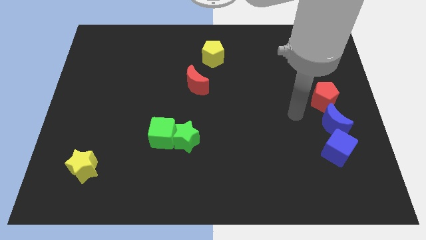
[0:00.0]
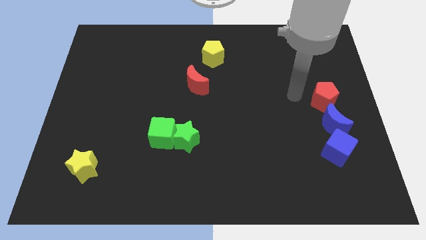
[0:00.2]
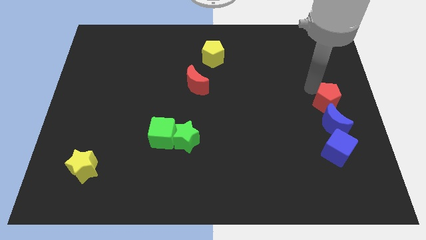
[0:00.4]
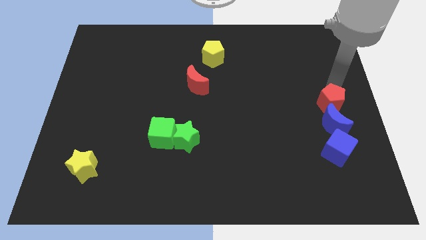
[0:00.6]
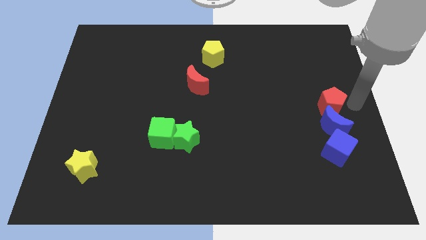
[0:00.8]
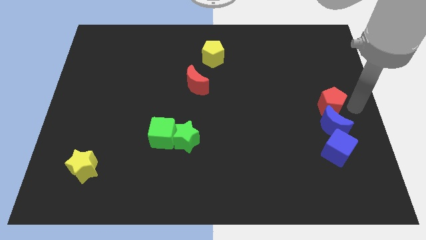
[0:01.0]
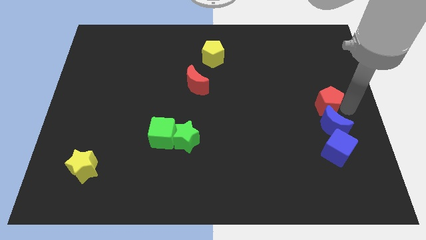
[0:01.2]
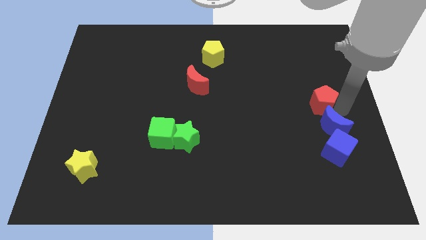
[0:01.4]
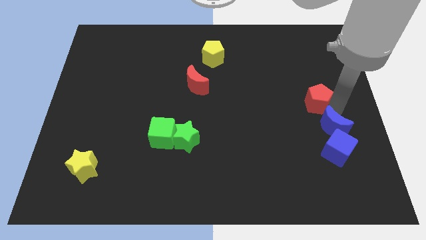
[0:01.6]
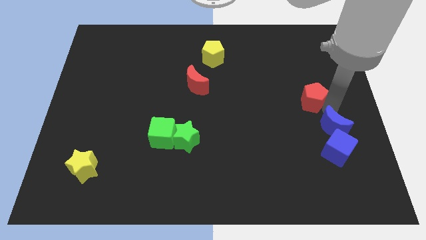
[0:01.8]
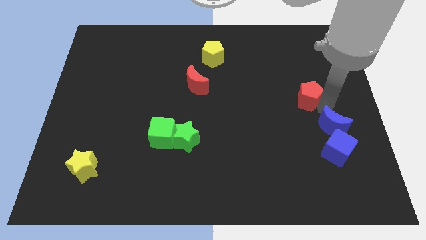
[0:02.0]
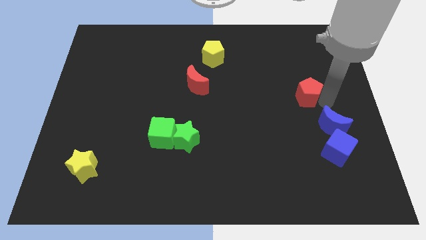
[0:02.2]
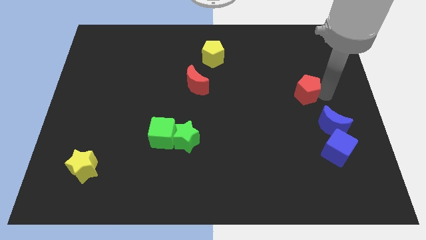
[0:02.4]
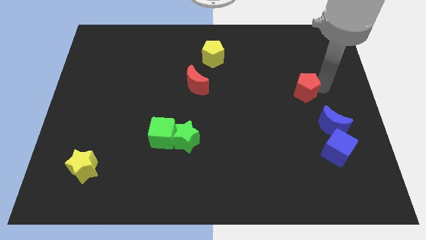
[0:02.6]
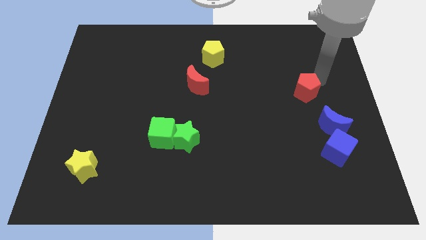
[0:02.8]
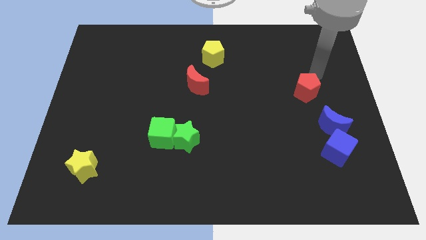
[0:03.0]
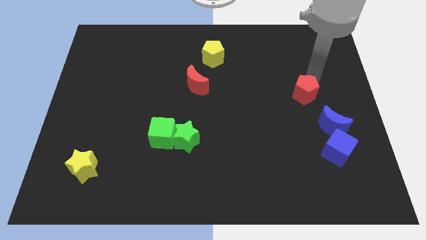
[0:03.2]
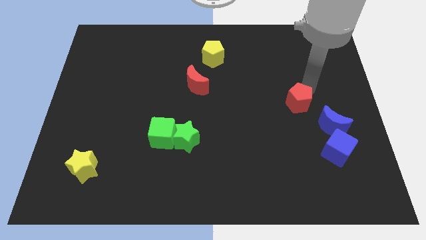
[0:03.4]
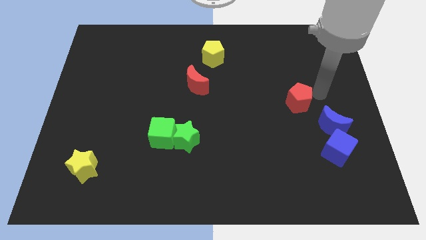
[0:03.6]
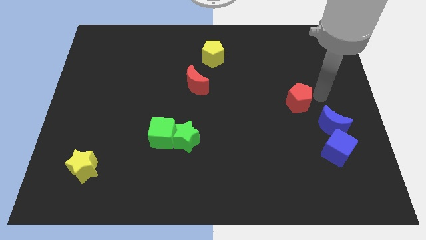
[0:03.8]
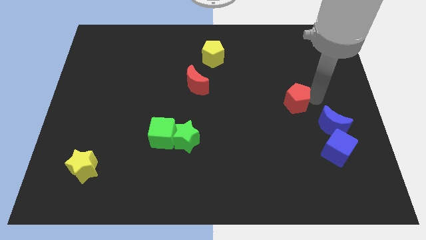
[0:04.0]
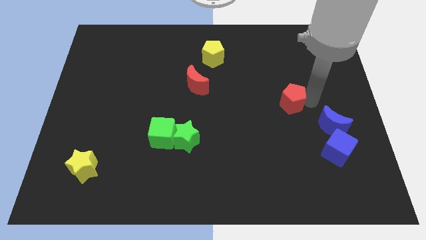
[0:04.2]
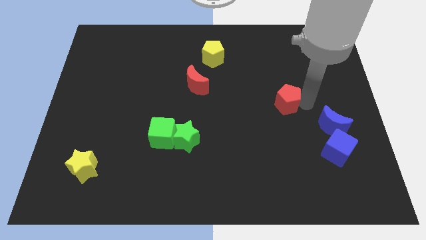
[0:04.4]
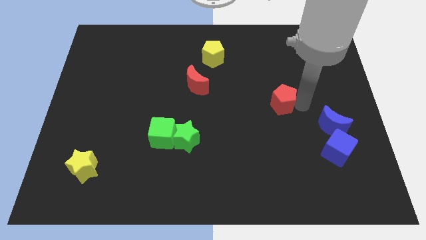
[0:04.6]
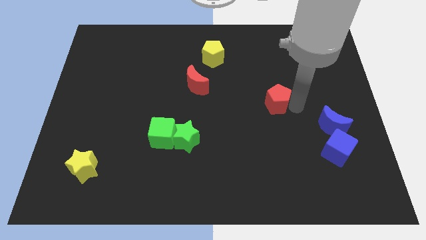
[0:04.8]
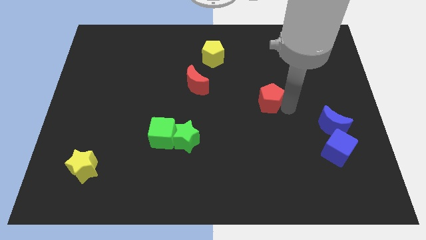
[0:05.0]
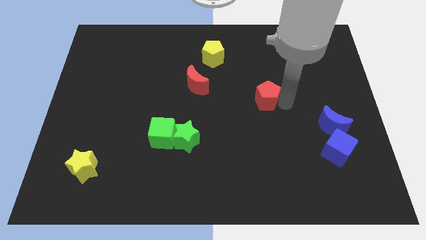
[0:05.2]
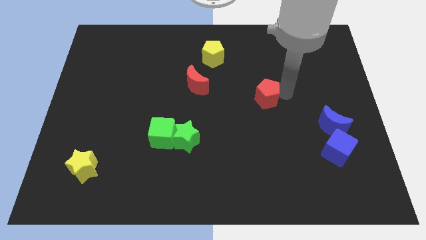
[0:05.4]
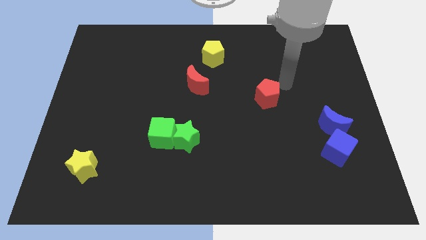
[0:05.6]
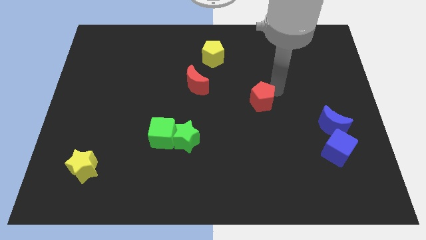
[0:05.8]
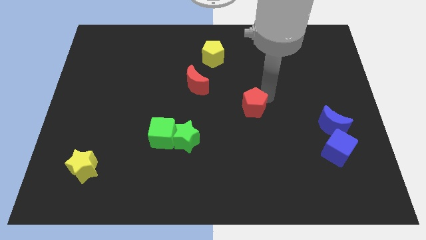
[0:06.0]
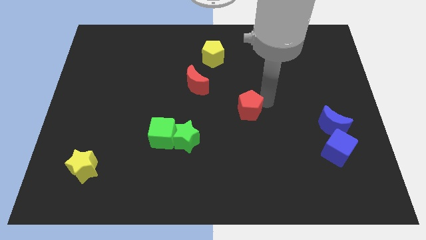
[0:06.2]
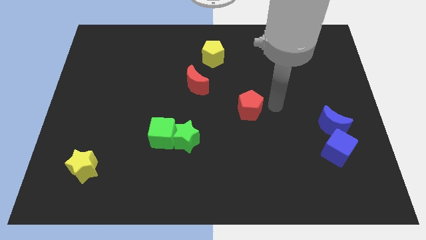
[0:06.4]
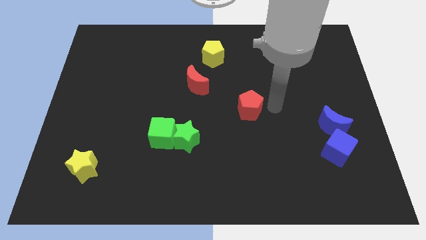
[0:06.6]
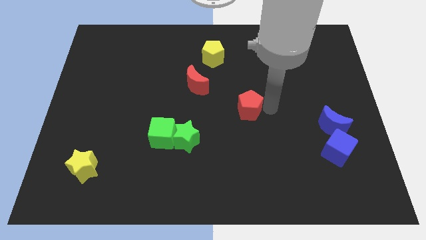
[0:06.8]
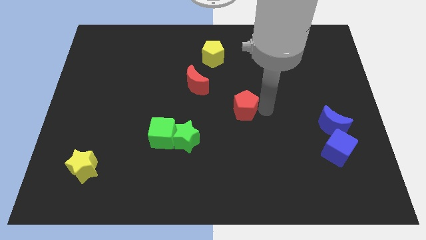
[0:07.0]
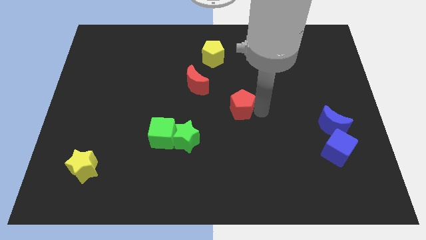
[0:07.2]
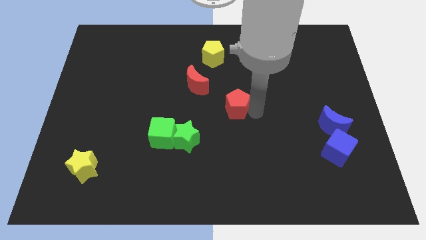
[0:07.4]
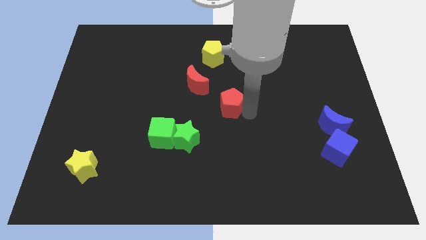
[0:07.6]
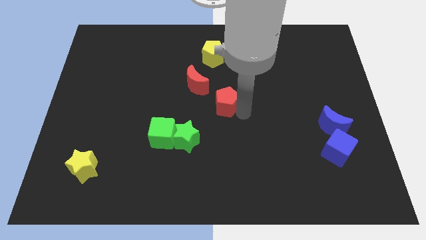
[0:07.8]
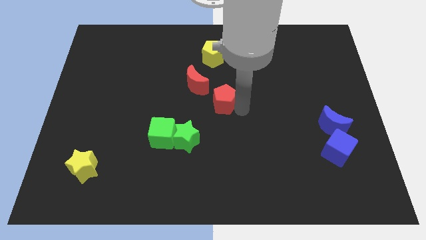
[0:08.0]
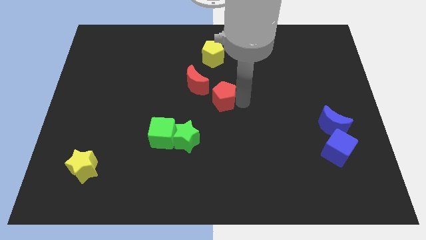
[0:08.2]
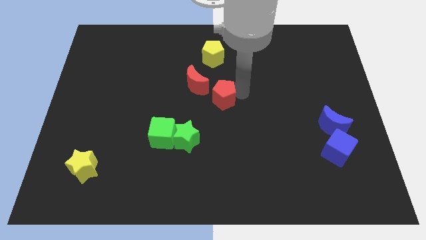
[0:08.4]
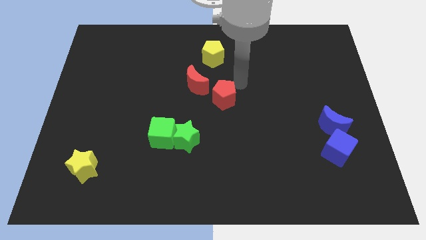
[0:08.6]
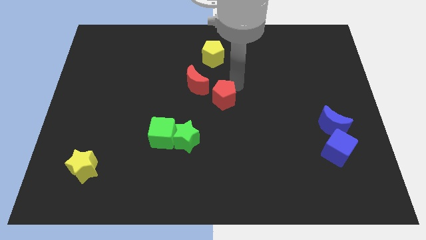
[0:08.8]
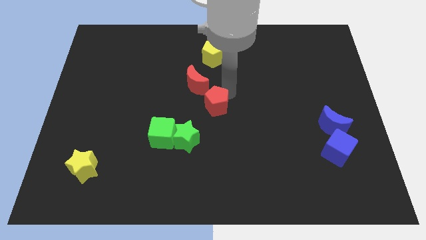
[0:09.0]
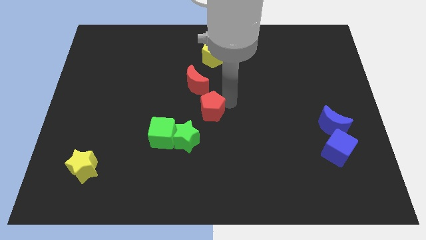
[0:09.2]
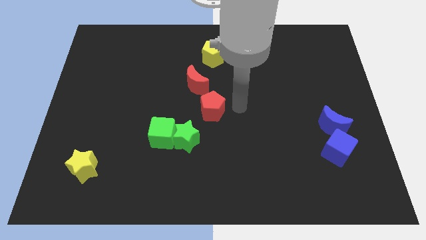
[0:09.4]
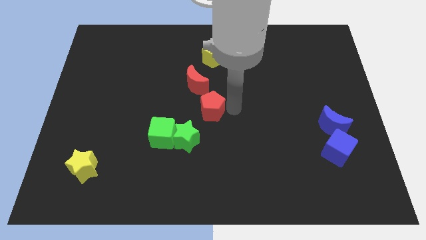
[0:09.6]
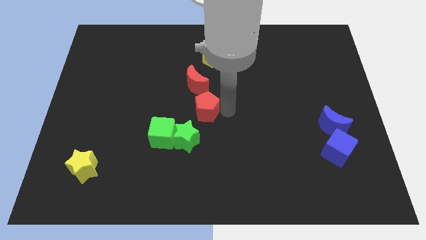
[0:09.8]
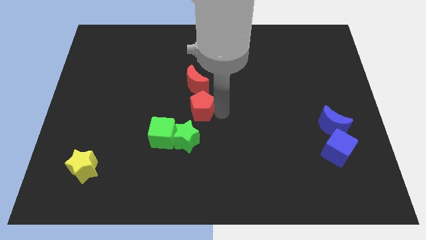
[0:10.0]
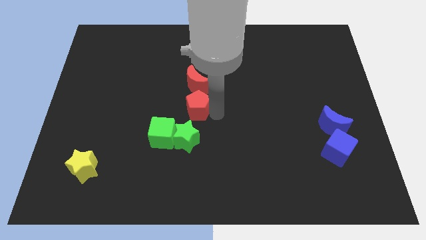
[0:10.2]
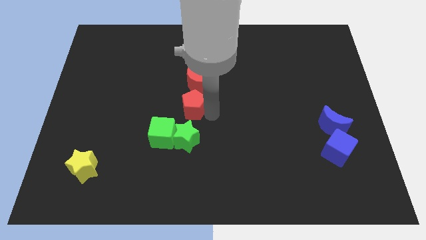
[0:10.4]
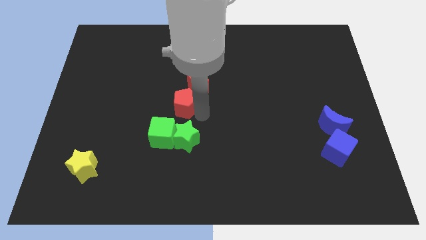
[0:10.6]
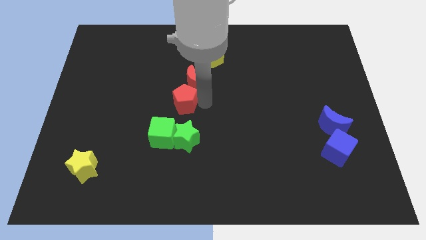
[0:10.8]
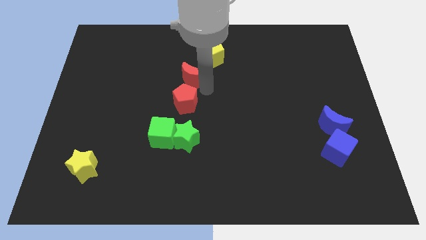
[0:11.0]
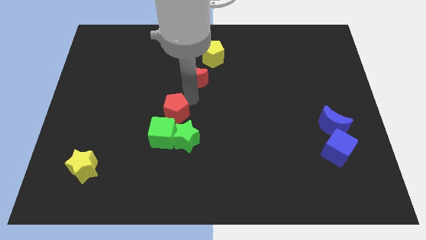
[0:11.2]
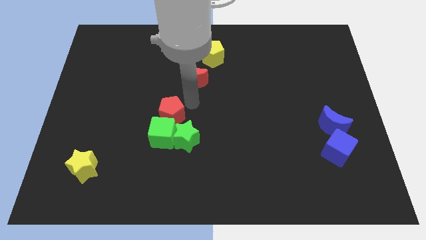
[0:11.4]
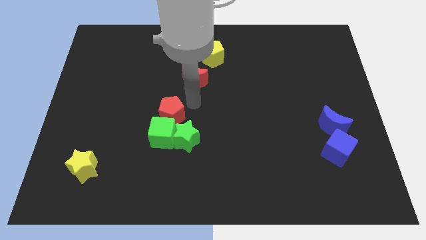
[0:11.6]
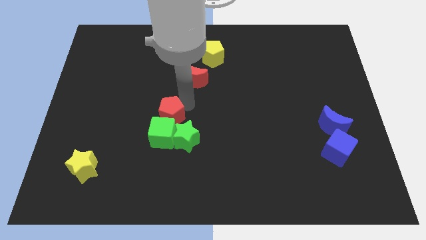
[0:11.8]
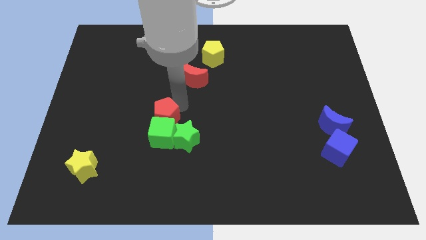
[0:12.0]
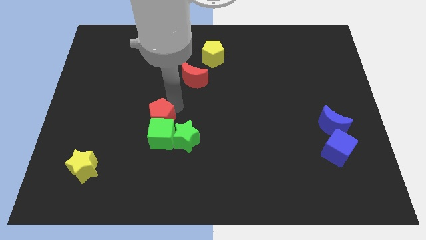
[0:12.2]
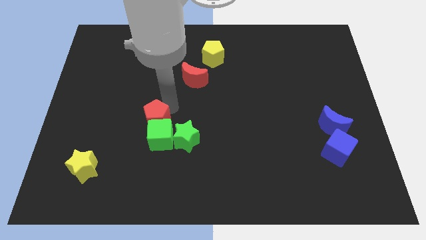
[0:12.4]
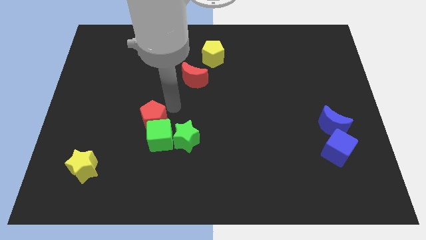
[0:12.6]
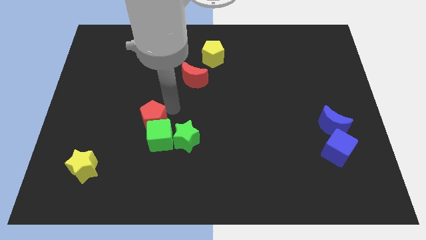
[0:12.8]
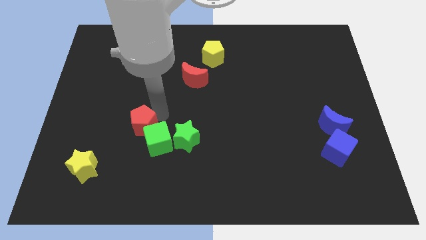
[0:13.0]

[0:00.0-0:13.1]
move the red pentagon left of the green cube

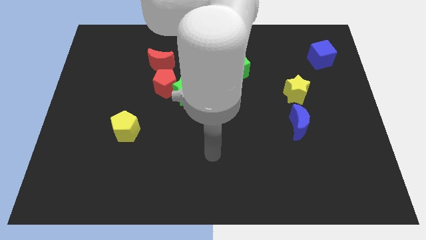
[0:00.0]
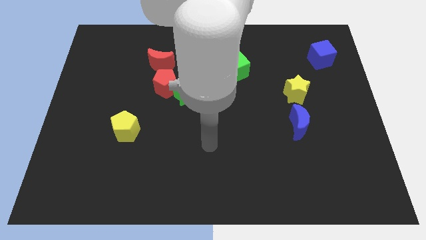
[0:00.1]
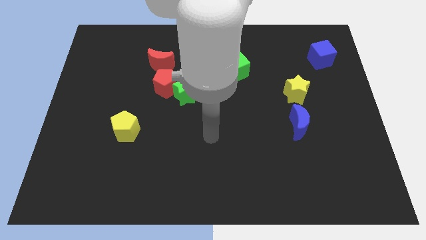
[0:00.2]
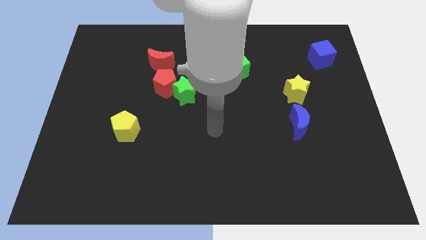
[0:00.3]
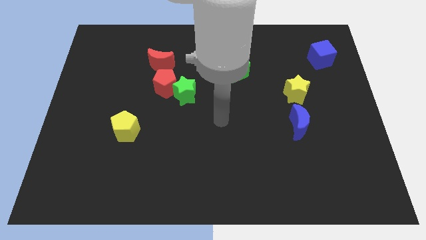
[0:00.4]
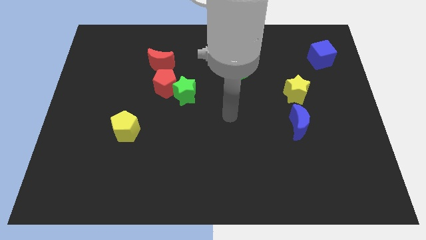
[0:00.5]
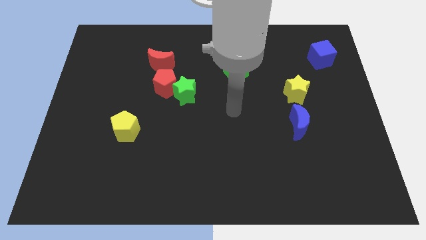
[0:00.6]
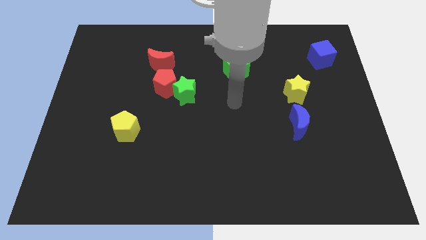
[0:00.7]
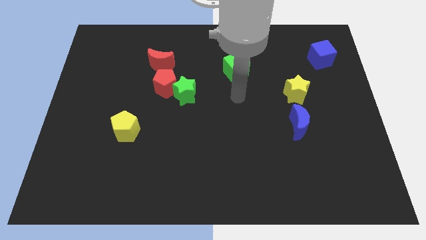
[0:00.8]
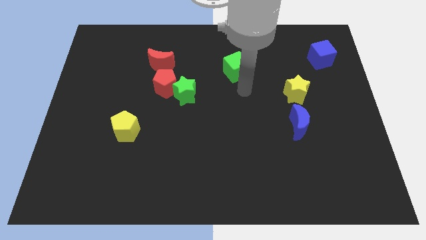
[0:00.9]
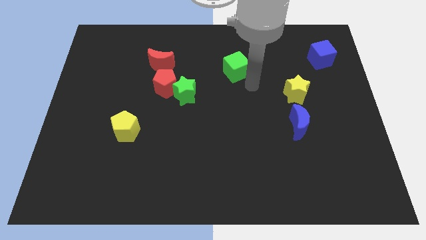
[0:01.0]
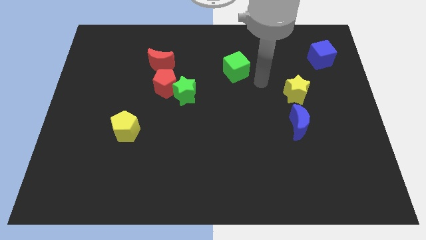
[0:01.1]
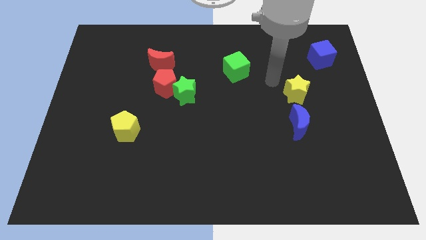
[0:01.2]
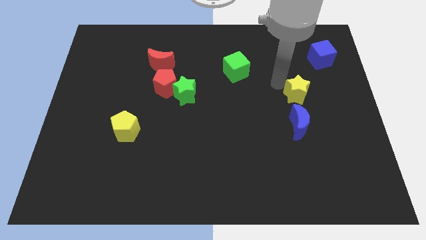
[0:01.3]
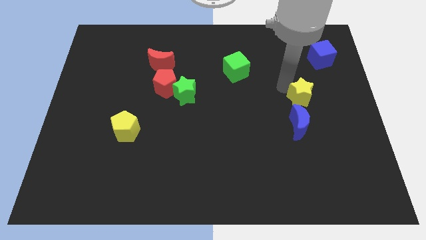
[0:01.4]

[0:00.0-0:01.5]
push the yellow star to the top right side of the blue moon
